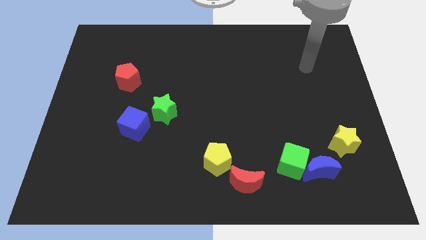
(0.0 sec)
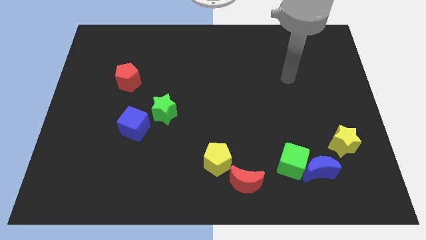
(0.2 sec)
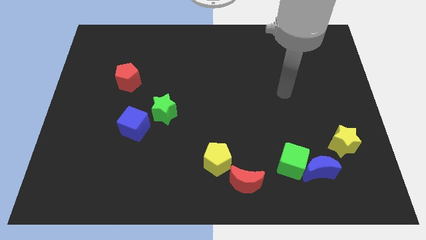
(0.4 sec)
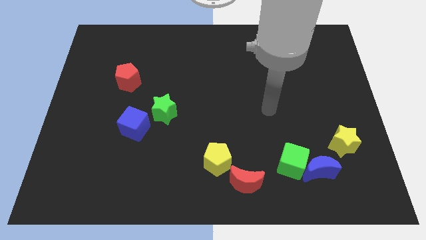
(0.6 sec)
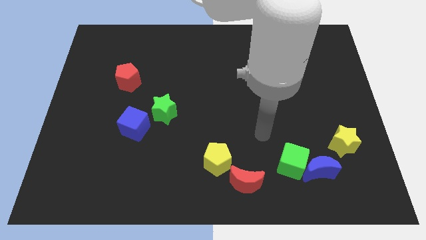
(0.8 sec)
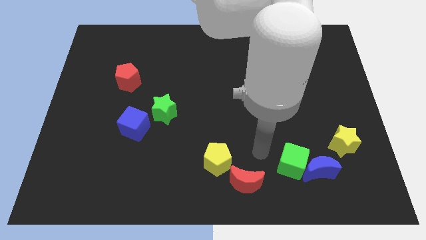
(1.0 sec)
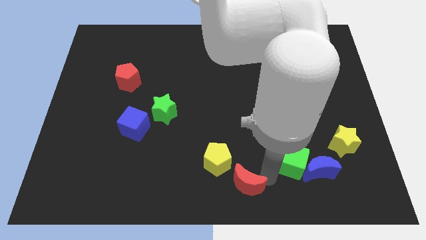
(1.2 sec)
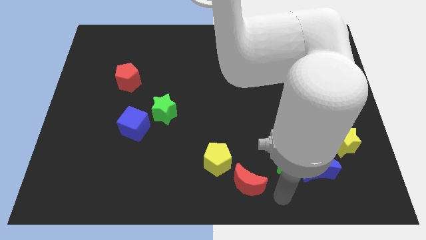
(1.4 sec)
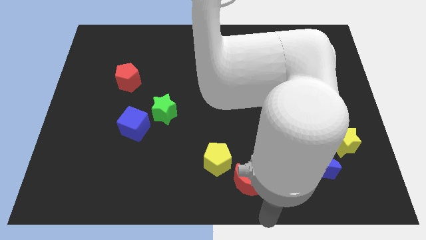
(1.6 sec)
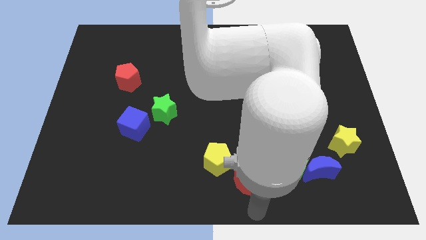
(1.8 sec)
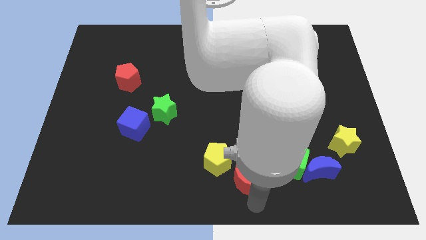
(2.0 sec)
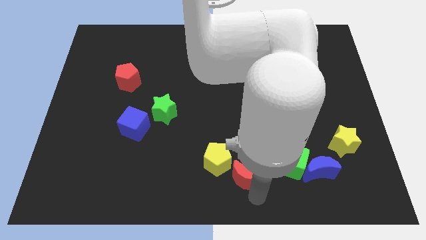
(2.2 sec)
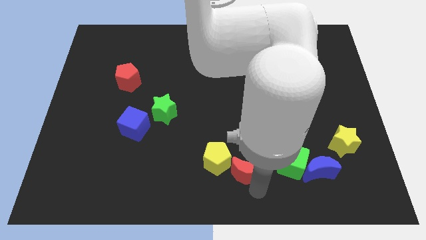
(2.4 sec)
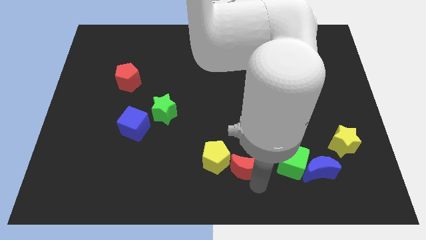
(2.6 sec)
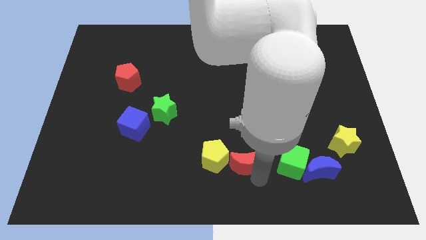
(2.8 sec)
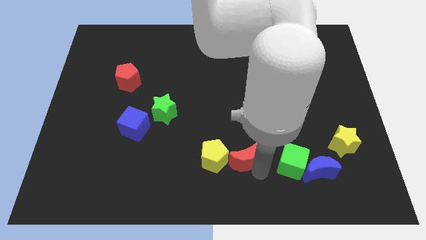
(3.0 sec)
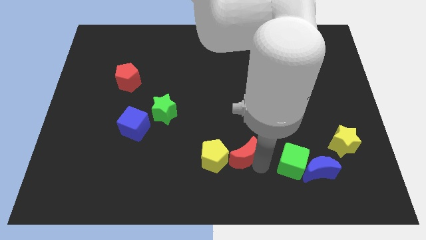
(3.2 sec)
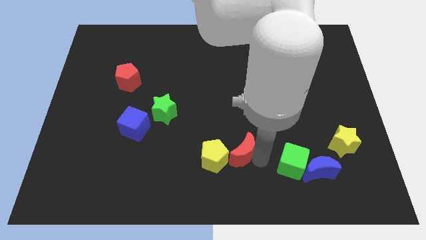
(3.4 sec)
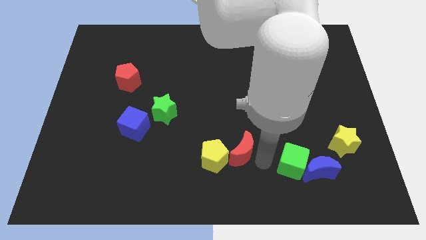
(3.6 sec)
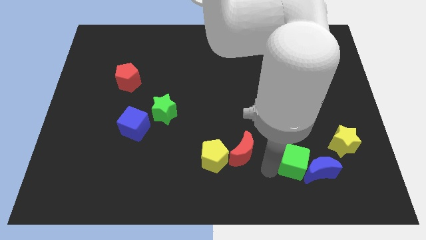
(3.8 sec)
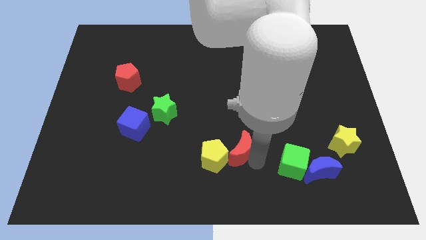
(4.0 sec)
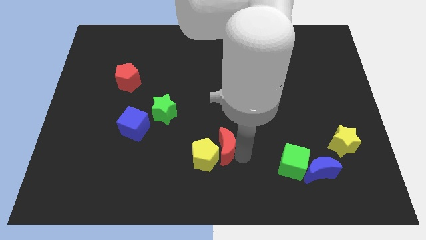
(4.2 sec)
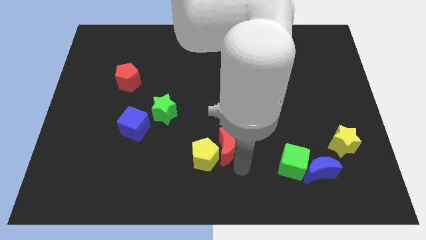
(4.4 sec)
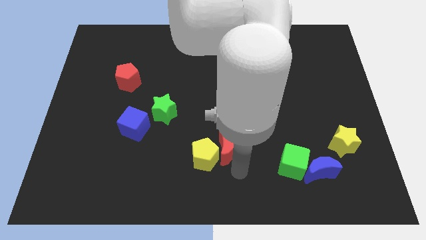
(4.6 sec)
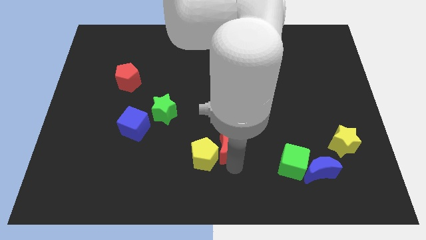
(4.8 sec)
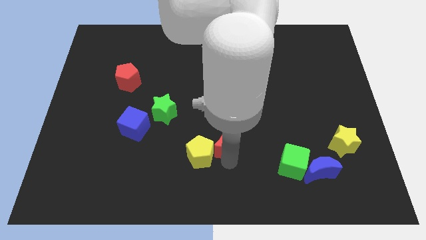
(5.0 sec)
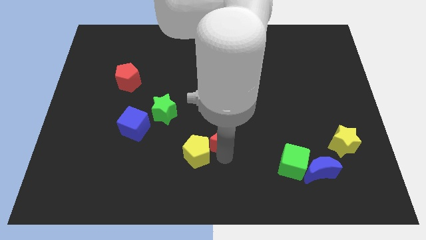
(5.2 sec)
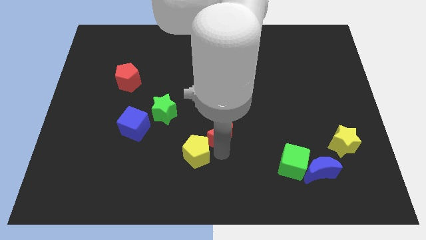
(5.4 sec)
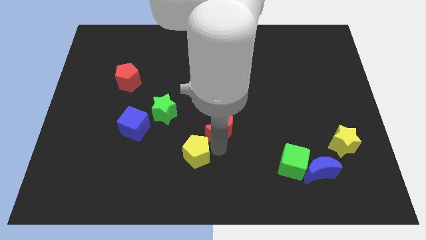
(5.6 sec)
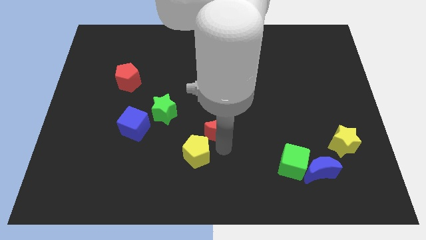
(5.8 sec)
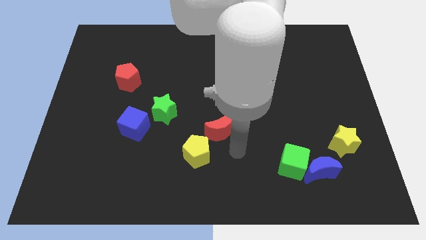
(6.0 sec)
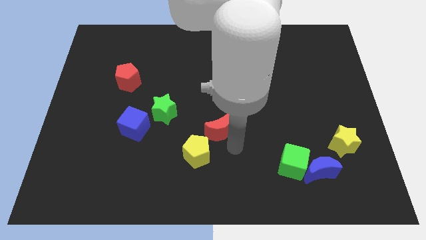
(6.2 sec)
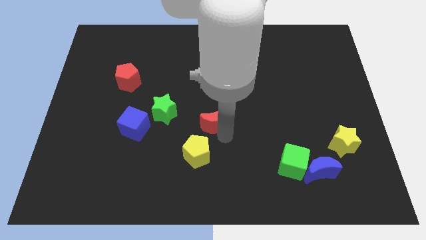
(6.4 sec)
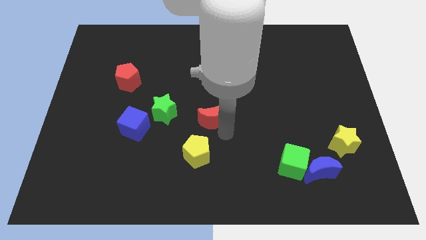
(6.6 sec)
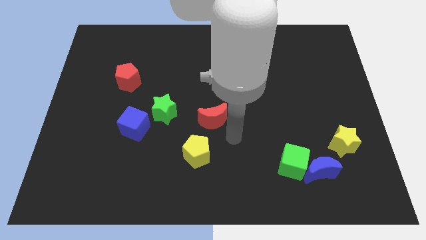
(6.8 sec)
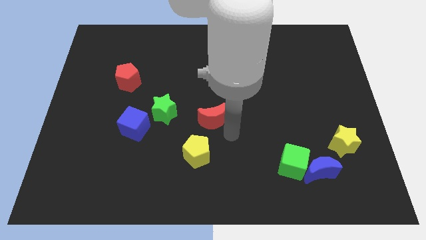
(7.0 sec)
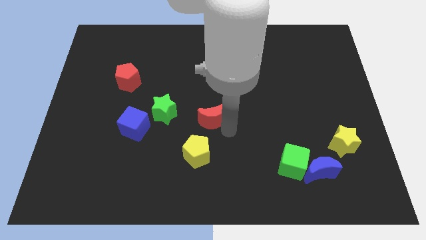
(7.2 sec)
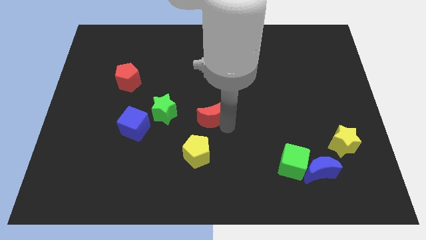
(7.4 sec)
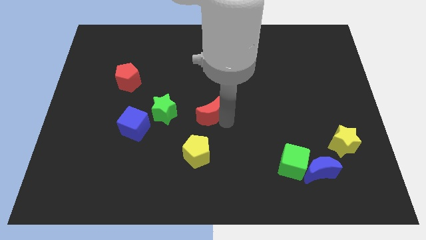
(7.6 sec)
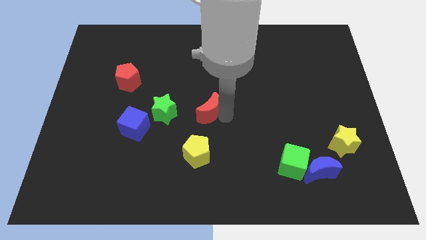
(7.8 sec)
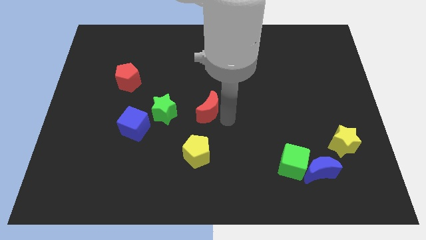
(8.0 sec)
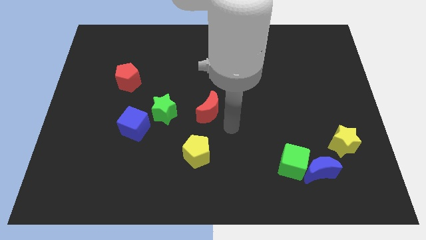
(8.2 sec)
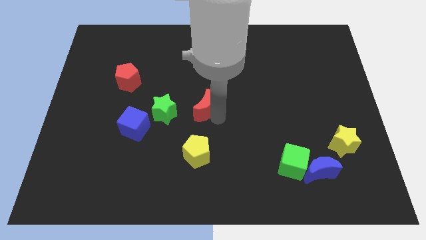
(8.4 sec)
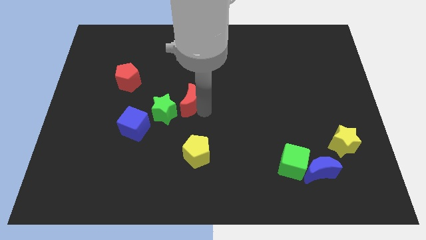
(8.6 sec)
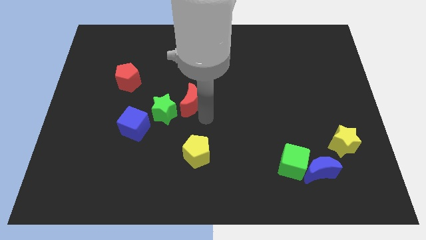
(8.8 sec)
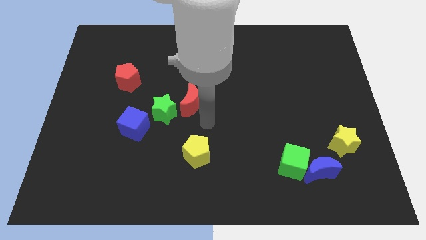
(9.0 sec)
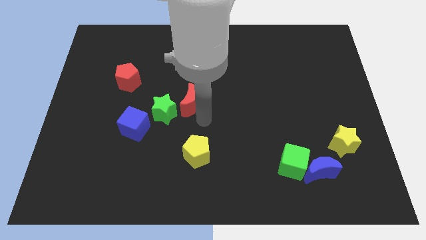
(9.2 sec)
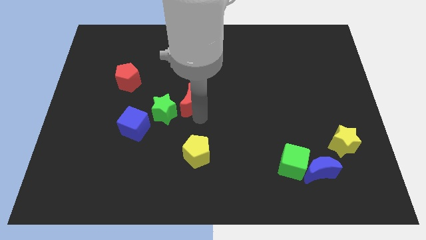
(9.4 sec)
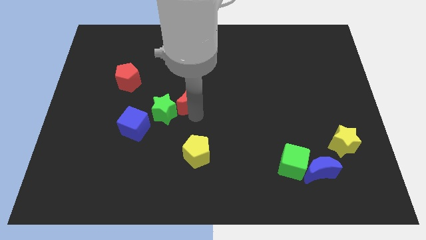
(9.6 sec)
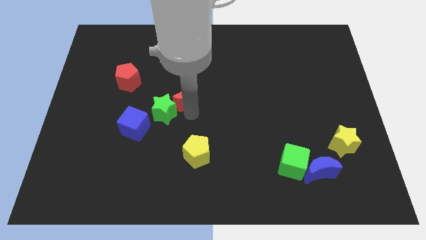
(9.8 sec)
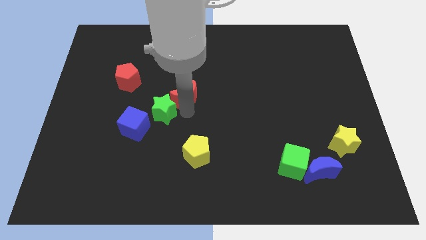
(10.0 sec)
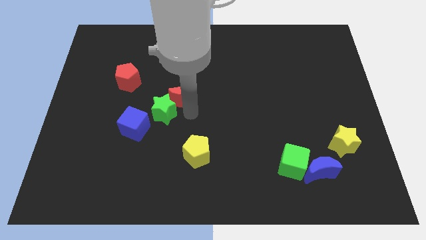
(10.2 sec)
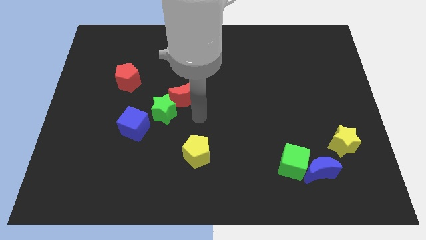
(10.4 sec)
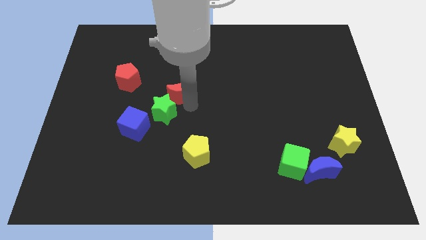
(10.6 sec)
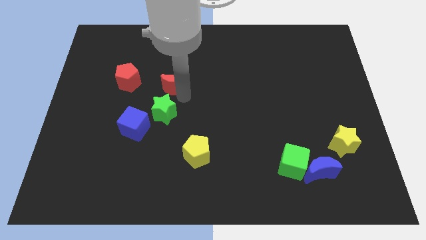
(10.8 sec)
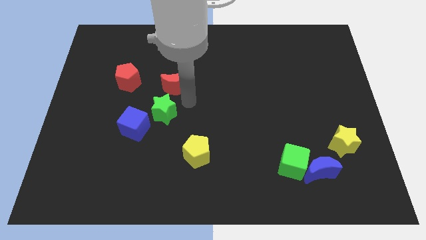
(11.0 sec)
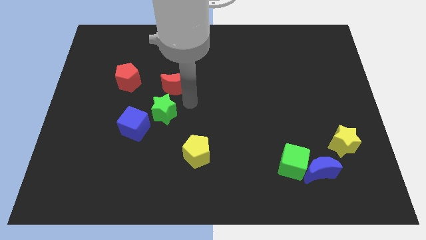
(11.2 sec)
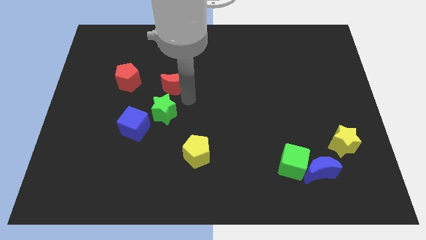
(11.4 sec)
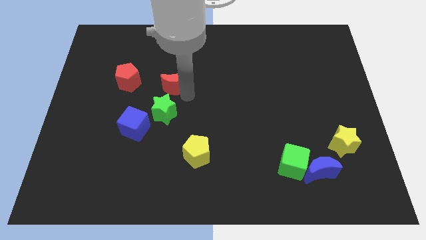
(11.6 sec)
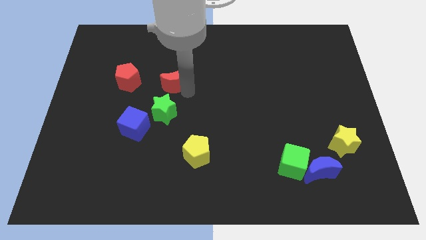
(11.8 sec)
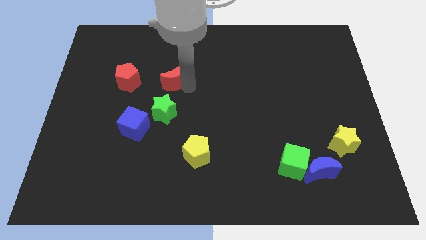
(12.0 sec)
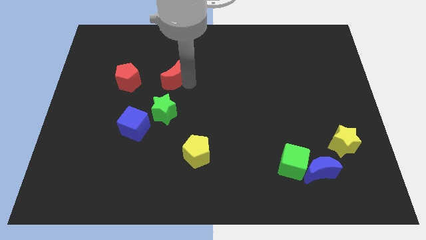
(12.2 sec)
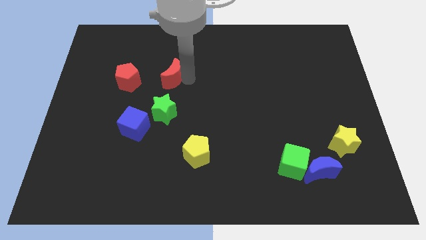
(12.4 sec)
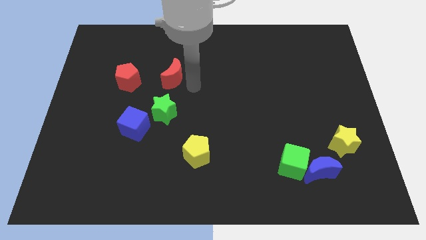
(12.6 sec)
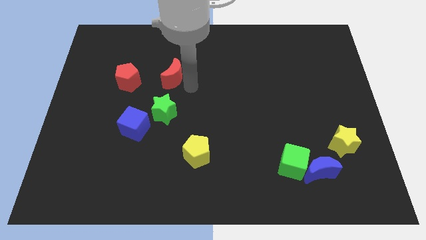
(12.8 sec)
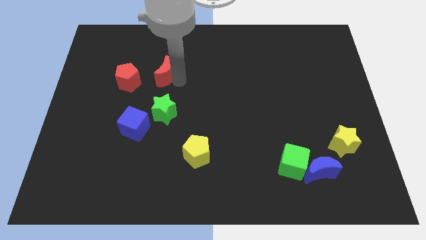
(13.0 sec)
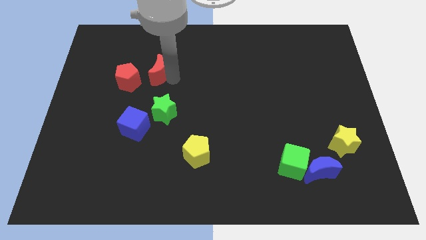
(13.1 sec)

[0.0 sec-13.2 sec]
put the red moon to the top right side of the red pentagon
